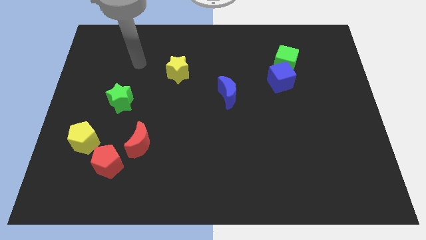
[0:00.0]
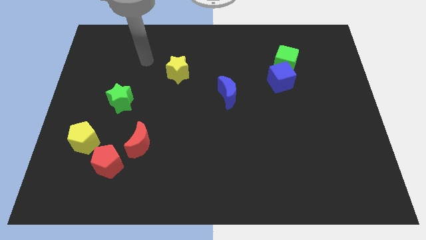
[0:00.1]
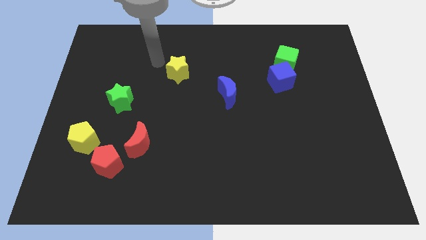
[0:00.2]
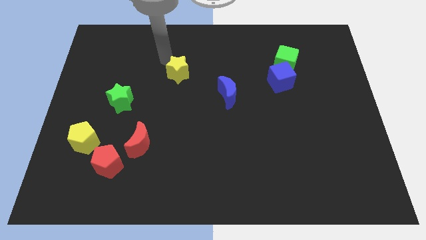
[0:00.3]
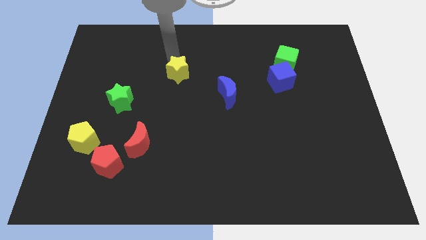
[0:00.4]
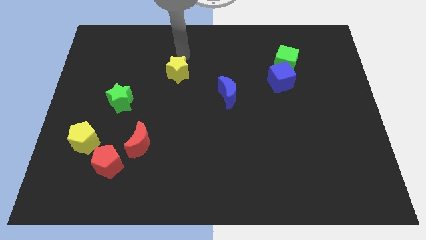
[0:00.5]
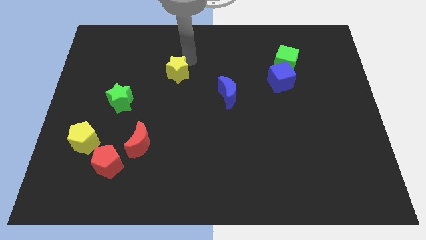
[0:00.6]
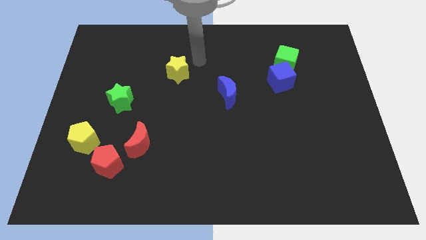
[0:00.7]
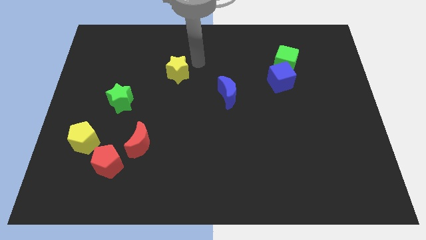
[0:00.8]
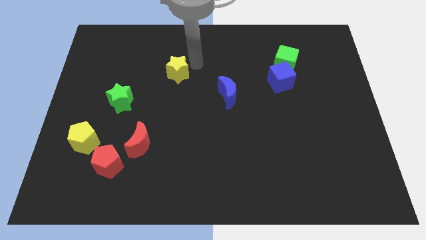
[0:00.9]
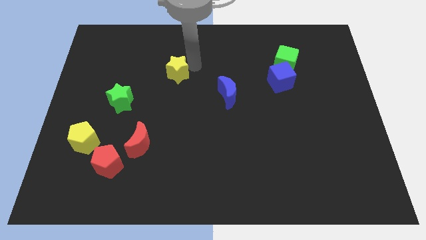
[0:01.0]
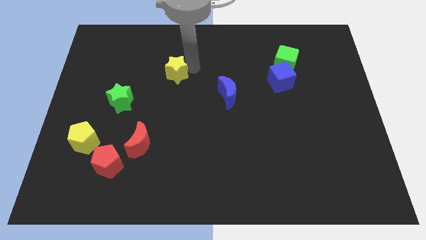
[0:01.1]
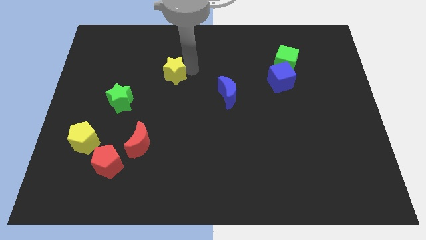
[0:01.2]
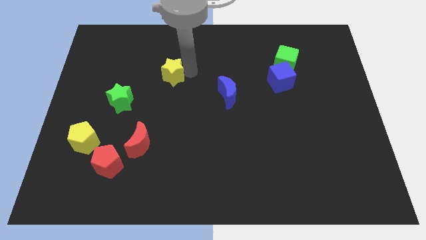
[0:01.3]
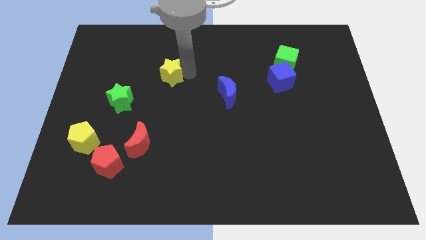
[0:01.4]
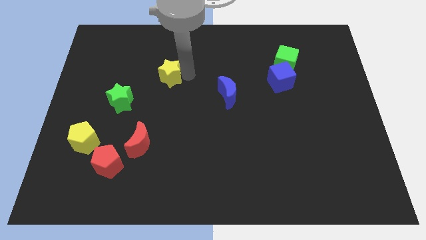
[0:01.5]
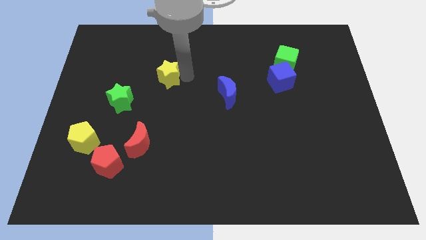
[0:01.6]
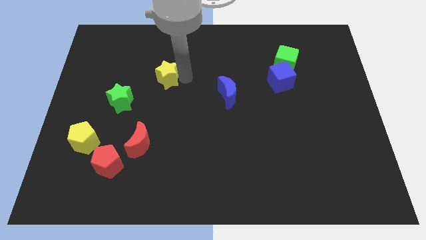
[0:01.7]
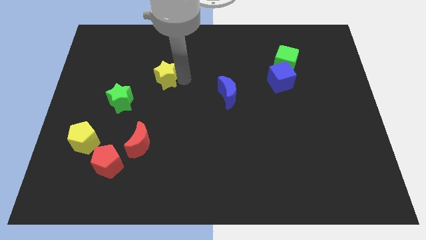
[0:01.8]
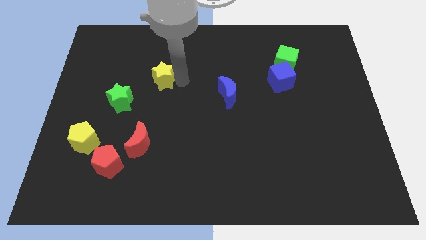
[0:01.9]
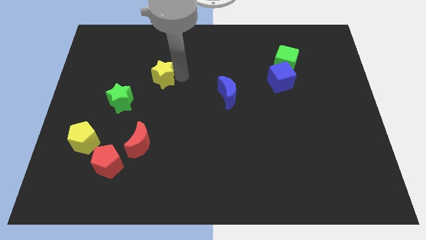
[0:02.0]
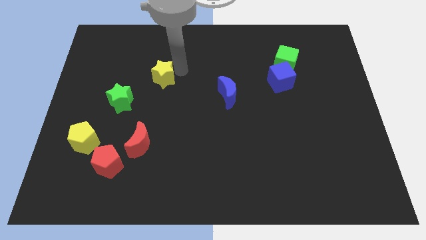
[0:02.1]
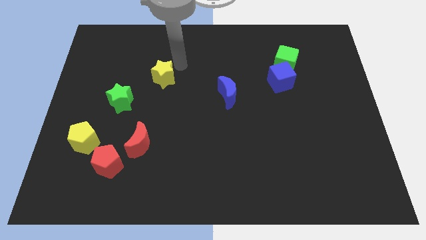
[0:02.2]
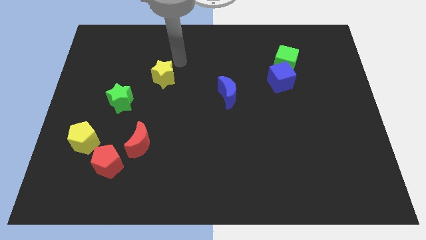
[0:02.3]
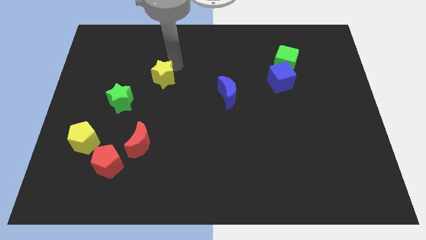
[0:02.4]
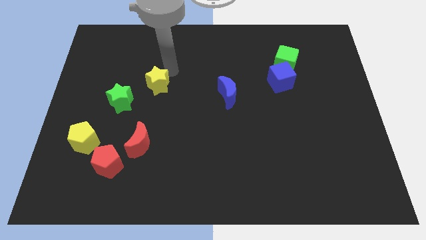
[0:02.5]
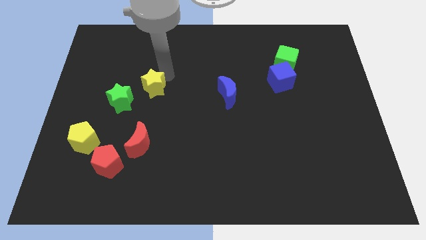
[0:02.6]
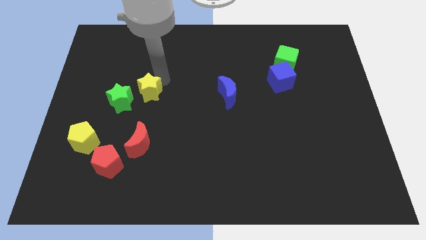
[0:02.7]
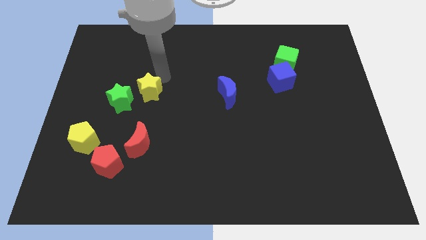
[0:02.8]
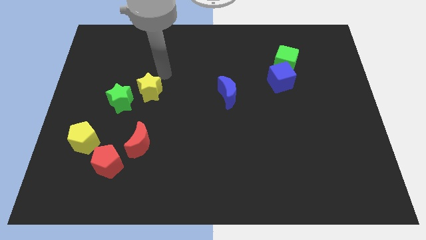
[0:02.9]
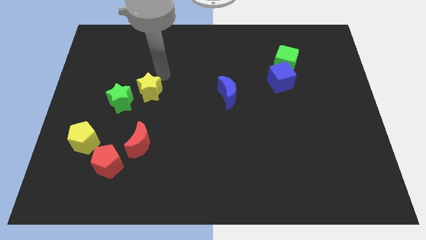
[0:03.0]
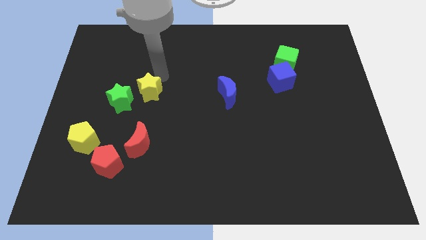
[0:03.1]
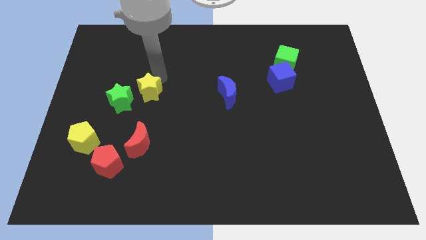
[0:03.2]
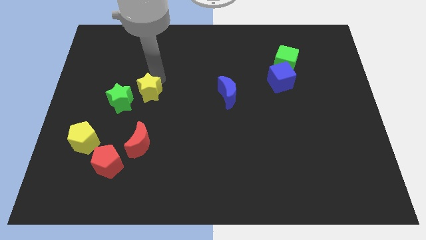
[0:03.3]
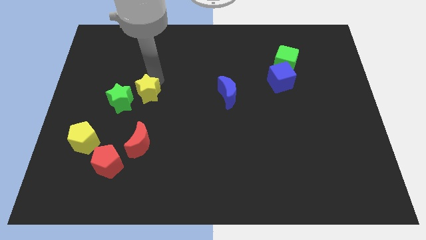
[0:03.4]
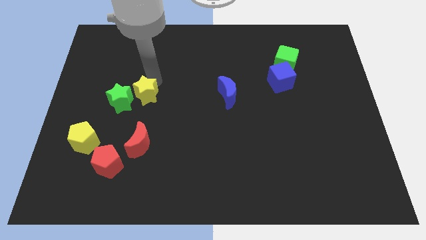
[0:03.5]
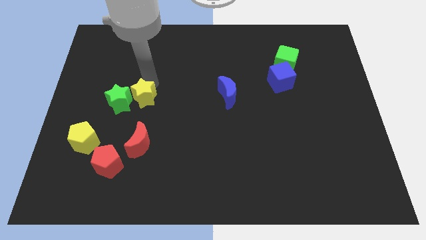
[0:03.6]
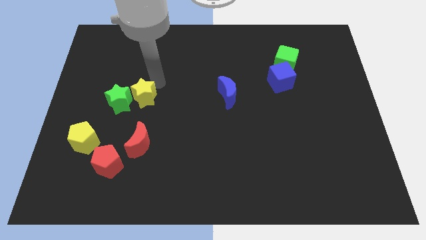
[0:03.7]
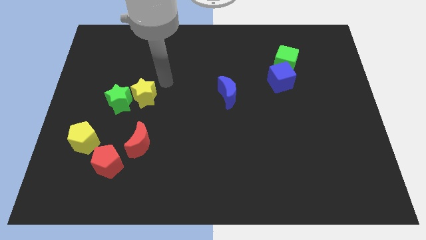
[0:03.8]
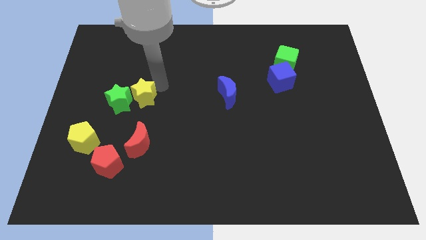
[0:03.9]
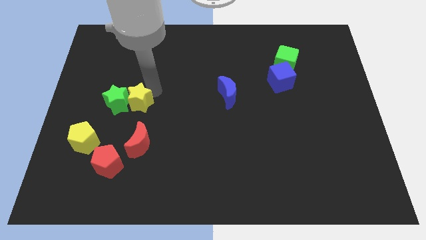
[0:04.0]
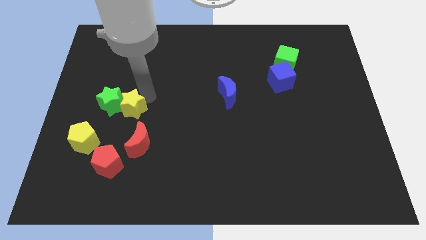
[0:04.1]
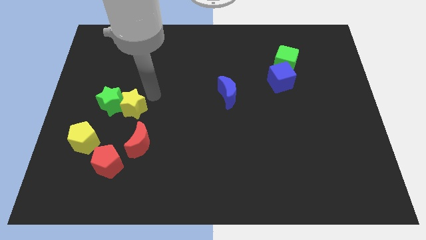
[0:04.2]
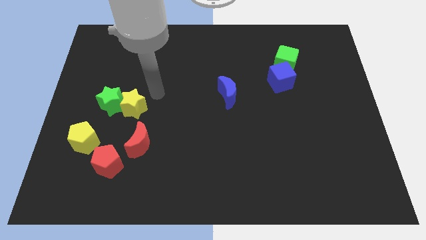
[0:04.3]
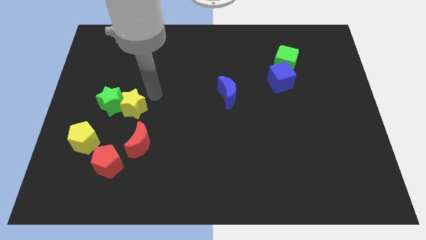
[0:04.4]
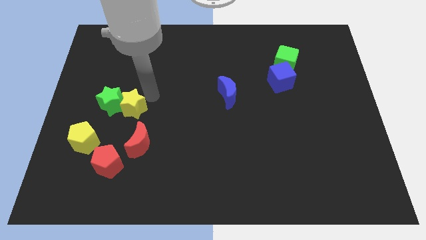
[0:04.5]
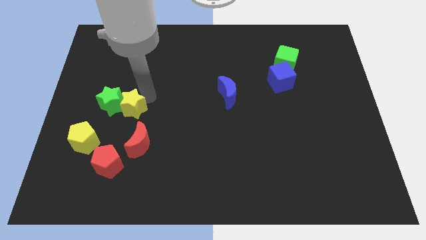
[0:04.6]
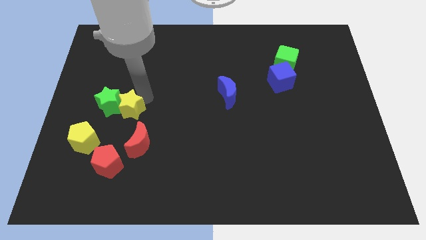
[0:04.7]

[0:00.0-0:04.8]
put the yellow star diagonally up and to the right of the yellow pentagon

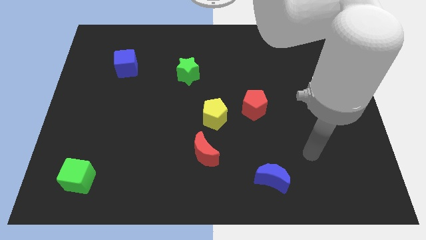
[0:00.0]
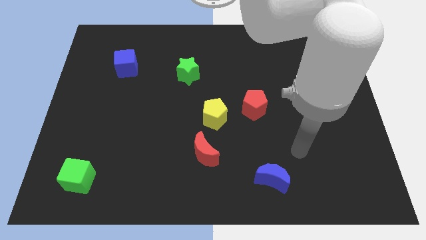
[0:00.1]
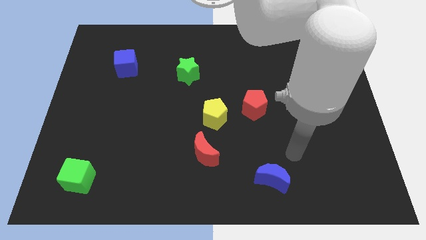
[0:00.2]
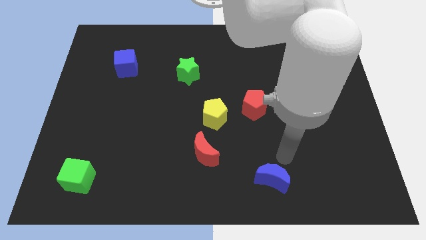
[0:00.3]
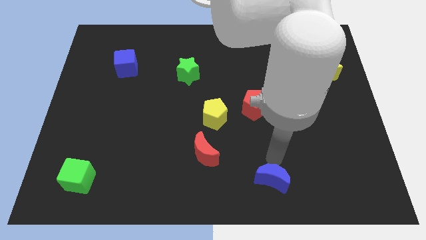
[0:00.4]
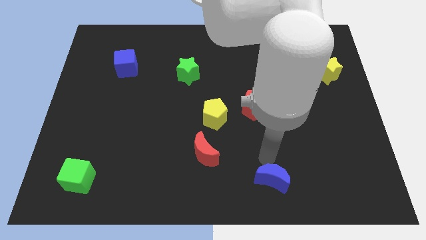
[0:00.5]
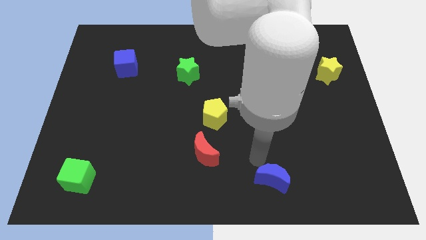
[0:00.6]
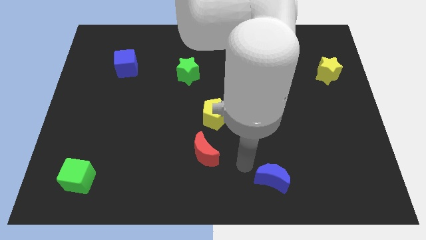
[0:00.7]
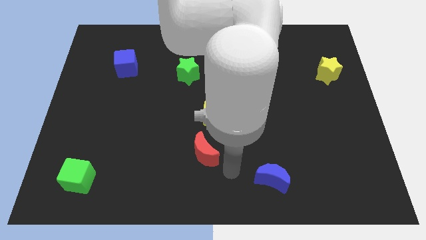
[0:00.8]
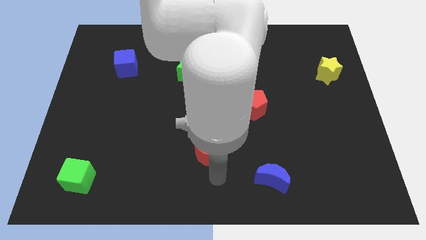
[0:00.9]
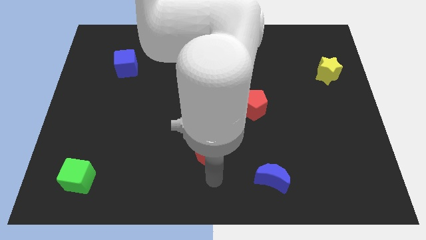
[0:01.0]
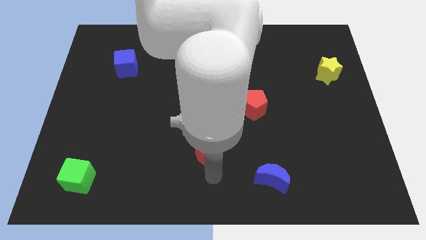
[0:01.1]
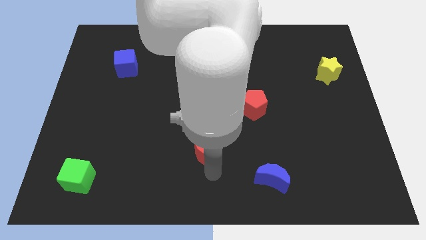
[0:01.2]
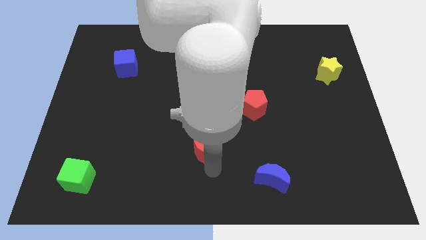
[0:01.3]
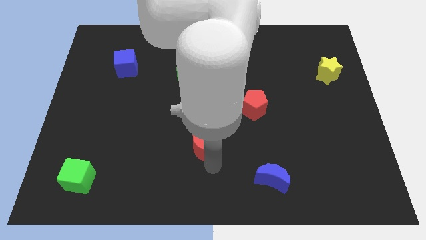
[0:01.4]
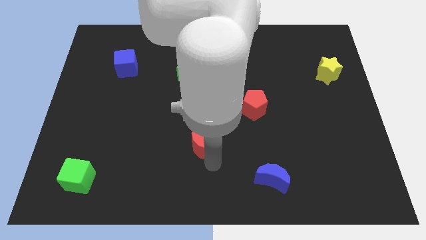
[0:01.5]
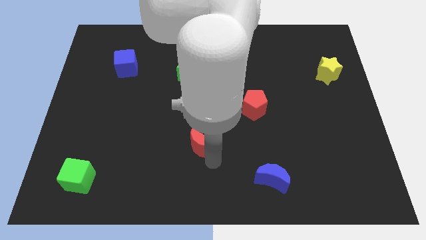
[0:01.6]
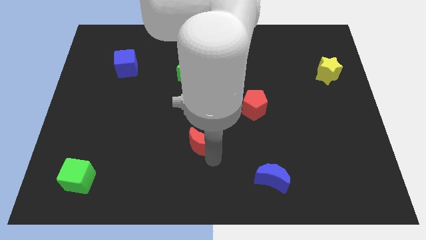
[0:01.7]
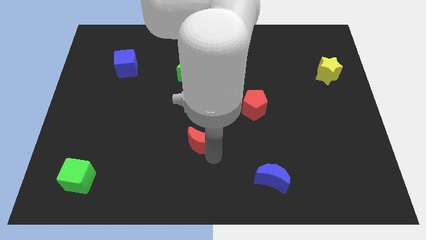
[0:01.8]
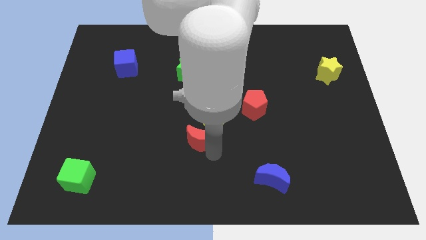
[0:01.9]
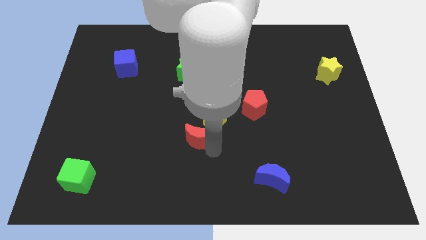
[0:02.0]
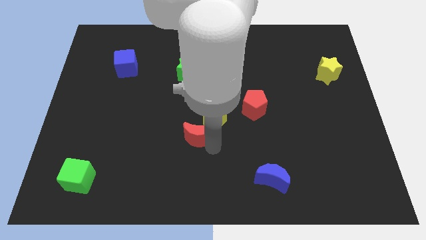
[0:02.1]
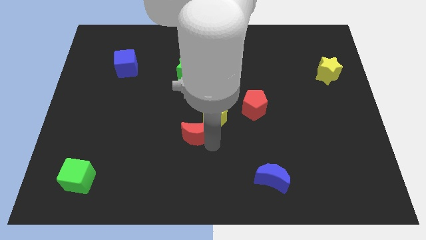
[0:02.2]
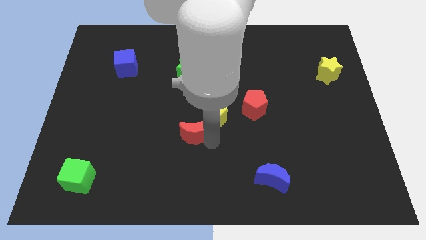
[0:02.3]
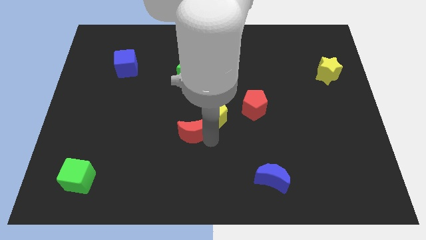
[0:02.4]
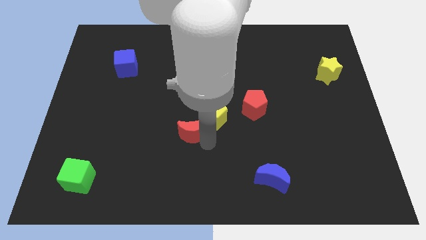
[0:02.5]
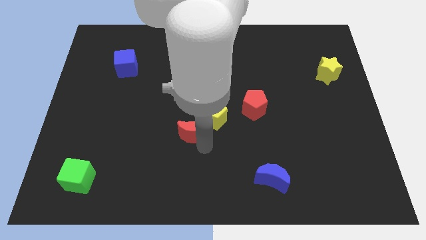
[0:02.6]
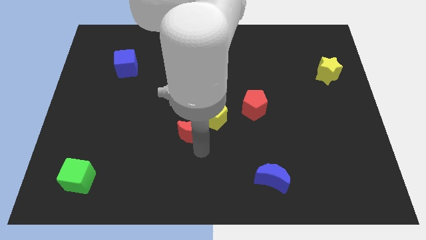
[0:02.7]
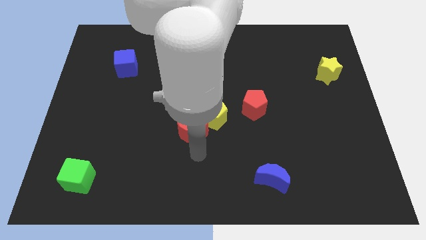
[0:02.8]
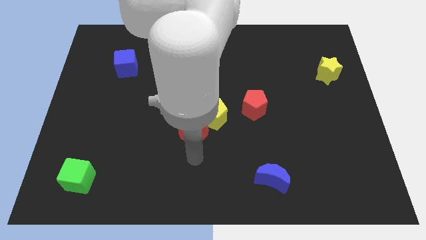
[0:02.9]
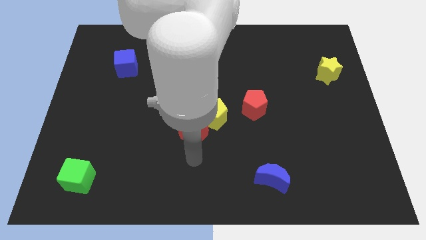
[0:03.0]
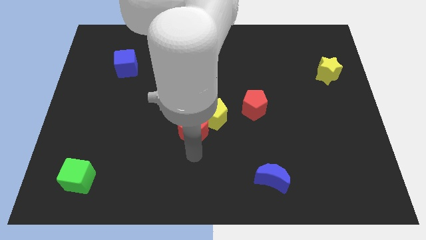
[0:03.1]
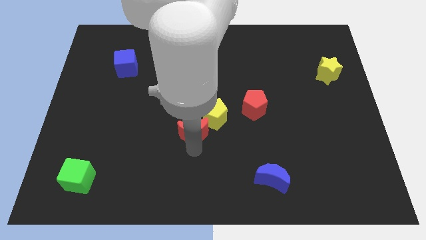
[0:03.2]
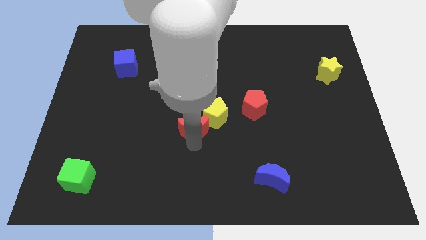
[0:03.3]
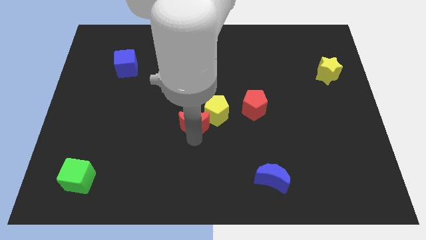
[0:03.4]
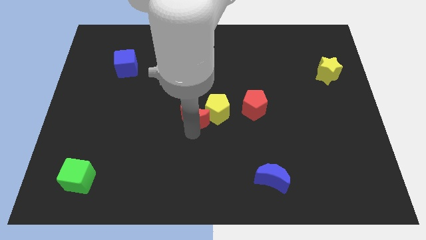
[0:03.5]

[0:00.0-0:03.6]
put the red moon to the left side of the red pentagon
